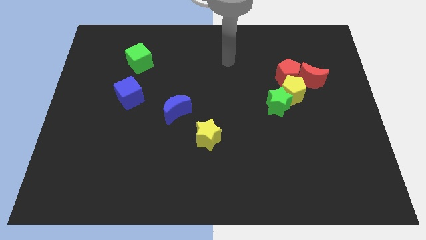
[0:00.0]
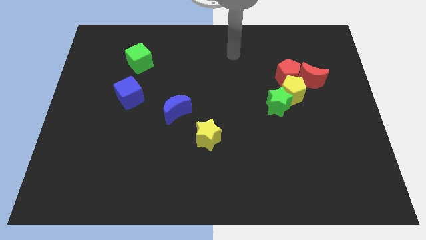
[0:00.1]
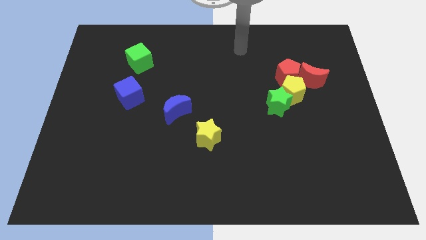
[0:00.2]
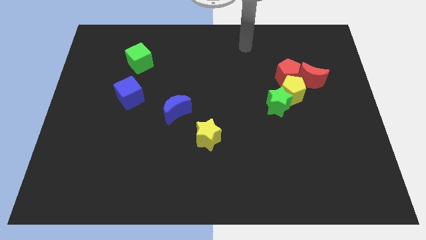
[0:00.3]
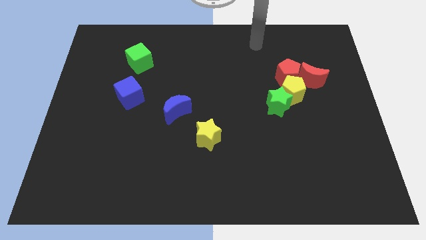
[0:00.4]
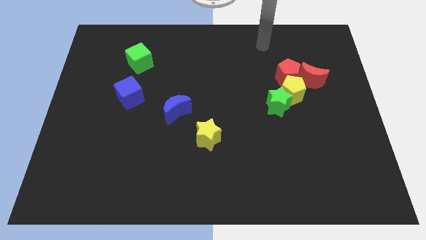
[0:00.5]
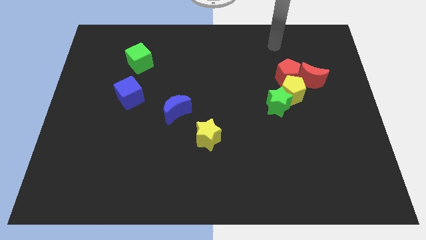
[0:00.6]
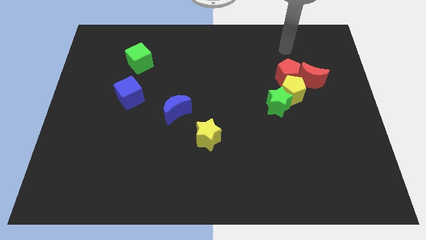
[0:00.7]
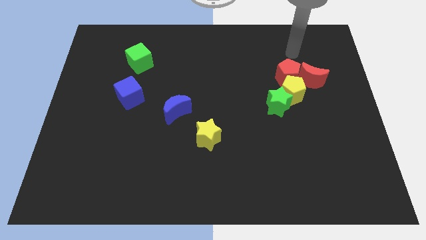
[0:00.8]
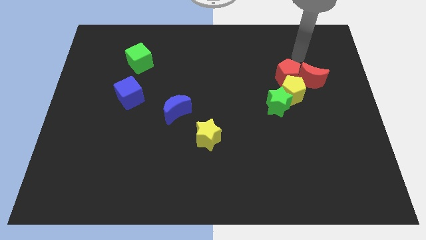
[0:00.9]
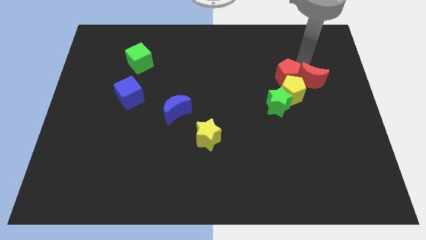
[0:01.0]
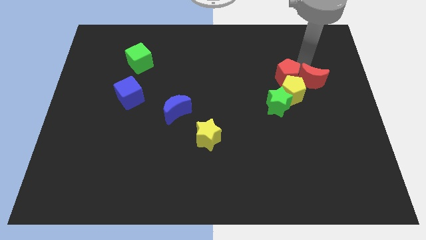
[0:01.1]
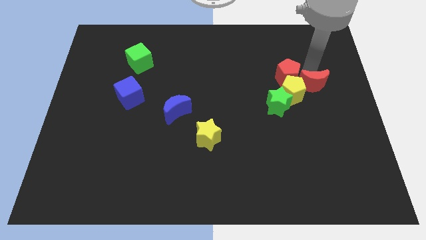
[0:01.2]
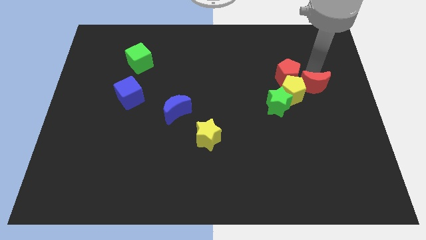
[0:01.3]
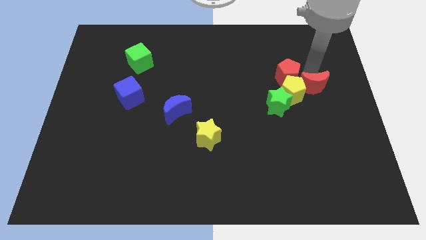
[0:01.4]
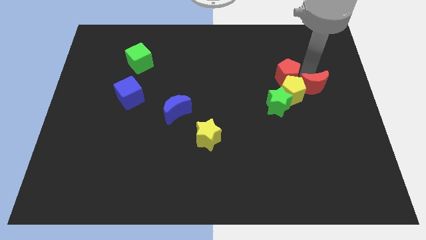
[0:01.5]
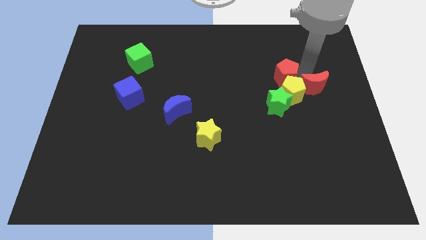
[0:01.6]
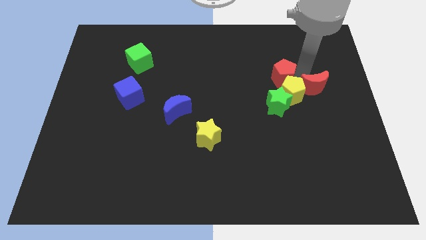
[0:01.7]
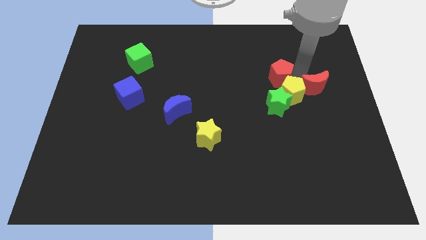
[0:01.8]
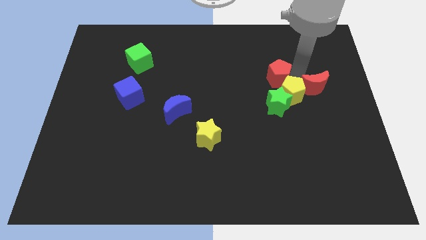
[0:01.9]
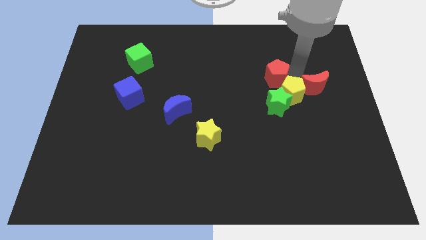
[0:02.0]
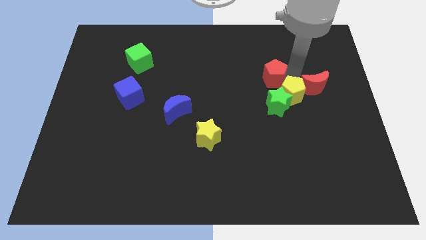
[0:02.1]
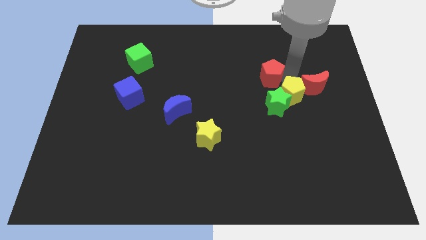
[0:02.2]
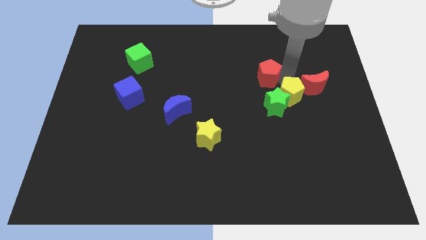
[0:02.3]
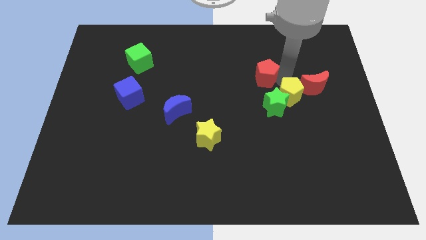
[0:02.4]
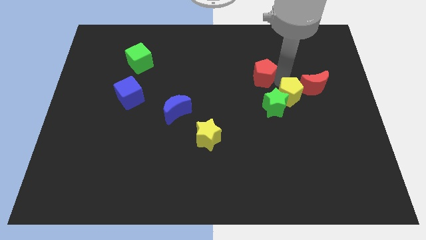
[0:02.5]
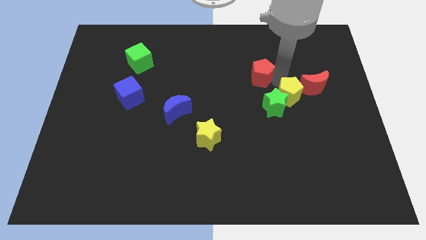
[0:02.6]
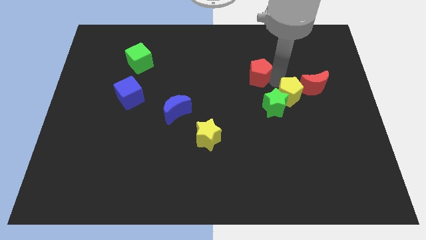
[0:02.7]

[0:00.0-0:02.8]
move the red pentagon a bit to the left

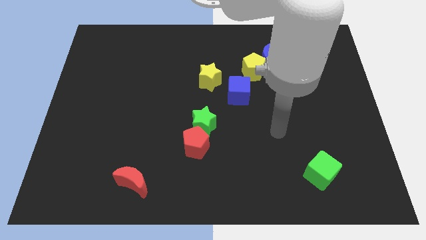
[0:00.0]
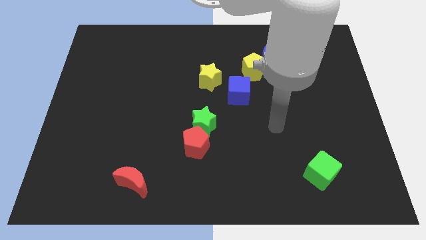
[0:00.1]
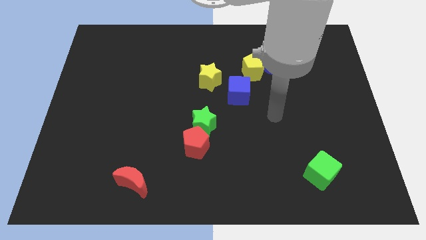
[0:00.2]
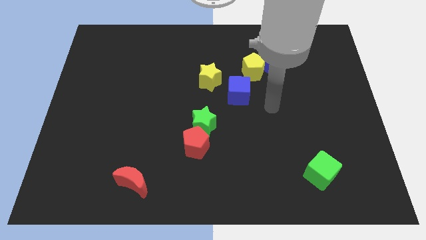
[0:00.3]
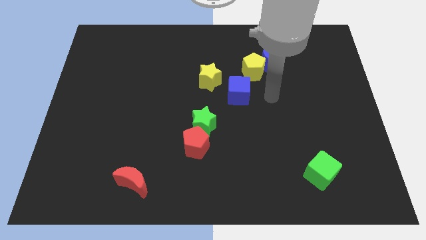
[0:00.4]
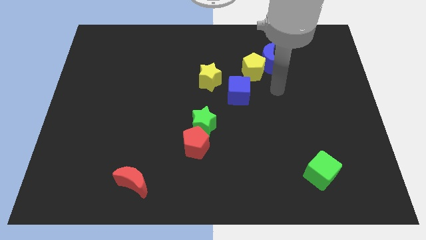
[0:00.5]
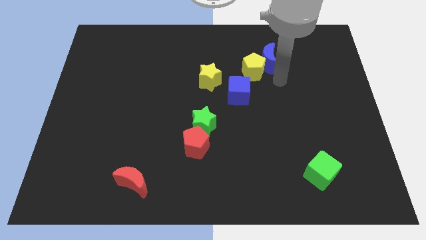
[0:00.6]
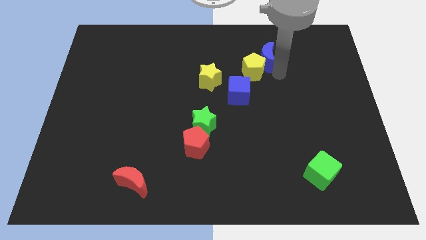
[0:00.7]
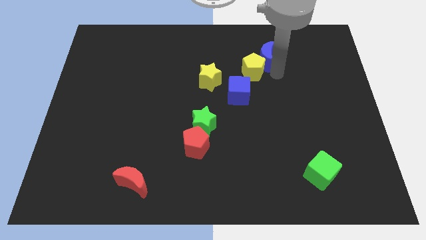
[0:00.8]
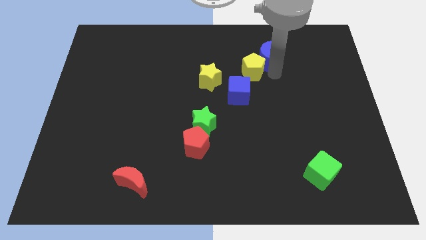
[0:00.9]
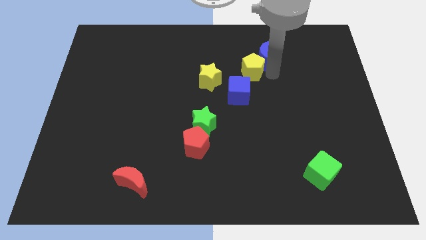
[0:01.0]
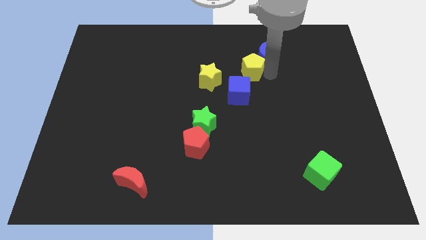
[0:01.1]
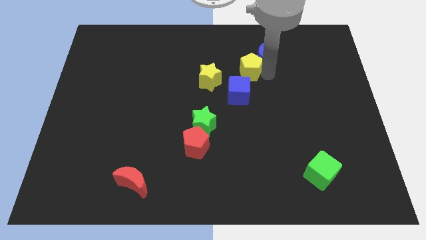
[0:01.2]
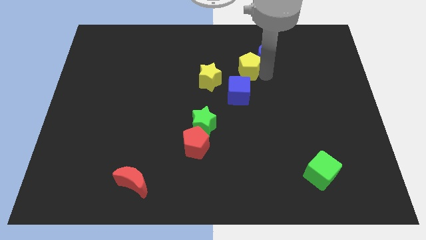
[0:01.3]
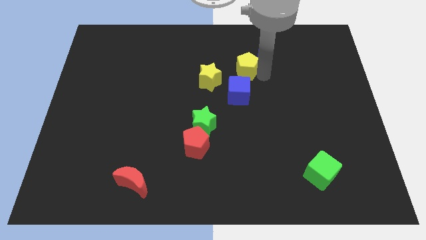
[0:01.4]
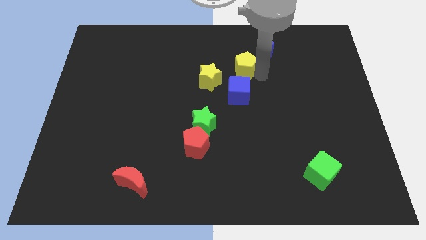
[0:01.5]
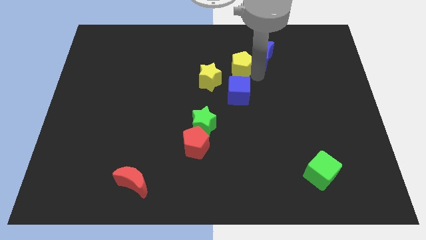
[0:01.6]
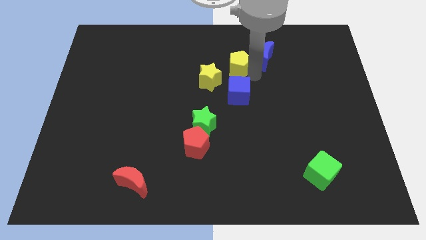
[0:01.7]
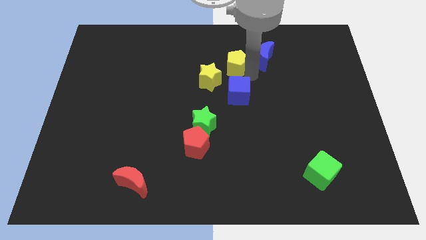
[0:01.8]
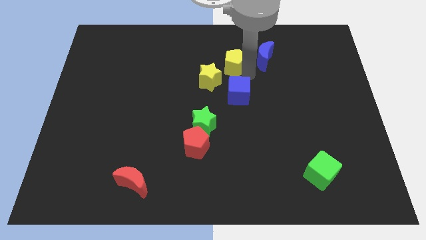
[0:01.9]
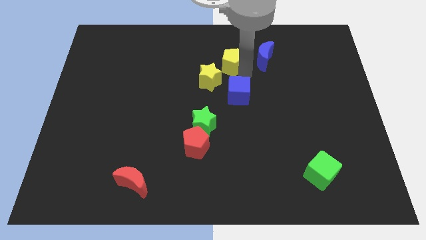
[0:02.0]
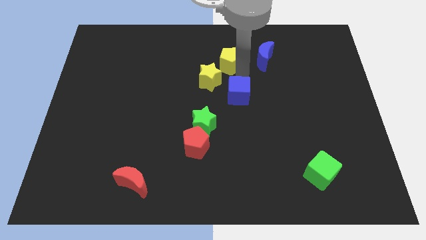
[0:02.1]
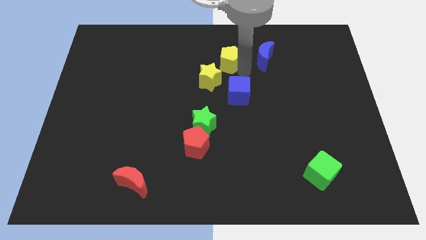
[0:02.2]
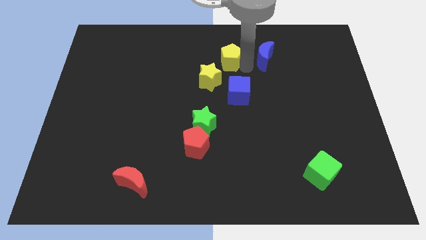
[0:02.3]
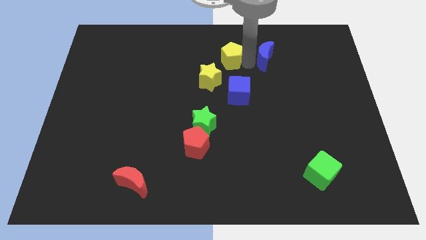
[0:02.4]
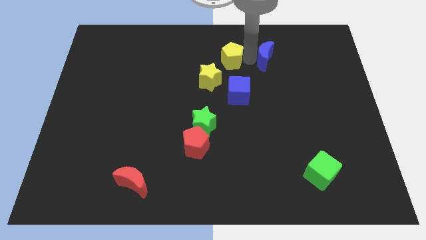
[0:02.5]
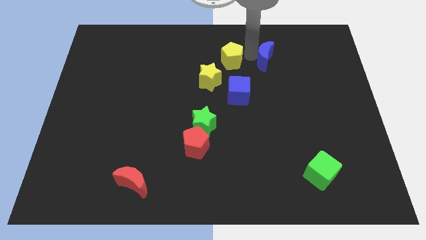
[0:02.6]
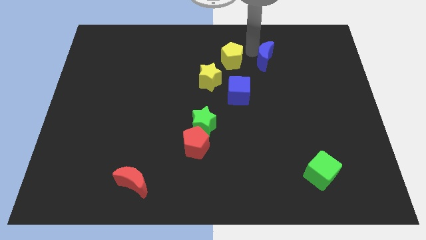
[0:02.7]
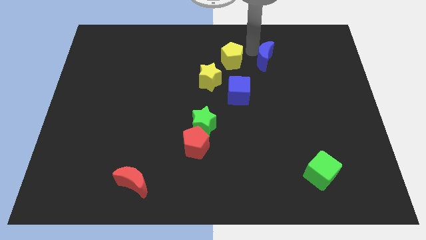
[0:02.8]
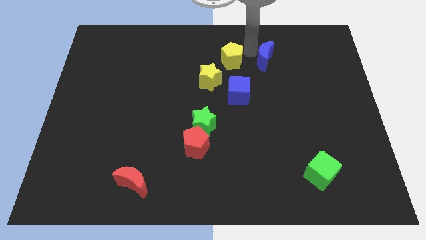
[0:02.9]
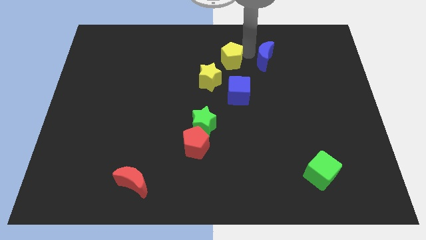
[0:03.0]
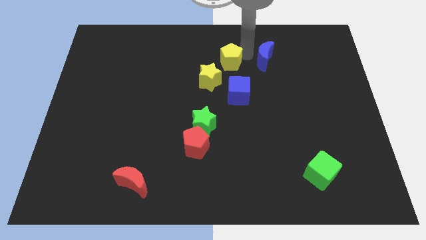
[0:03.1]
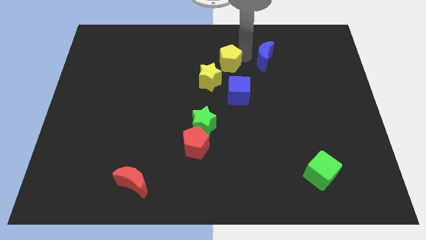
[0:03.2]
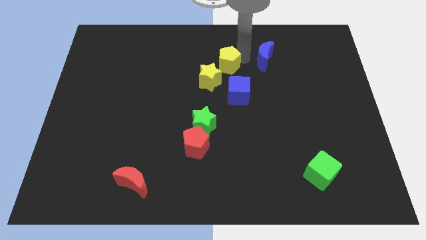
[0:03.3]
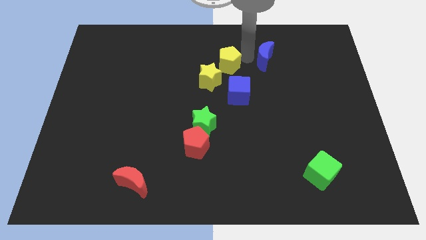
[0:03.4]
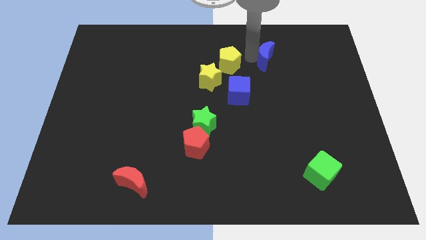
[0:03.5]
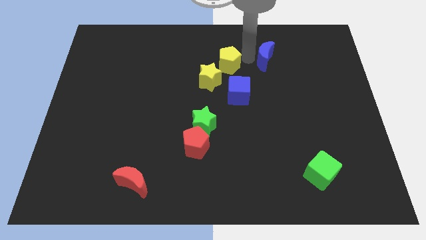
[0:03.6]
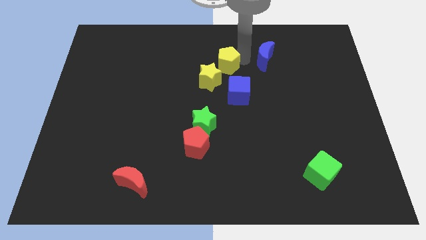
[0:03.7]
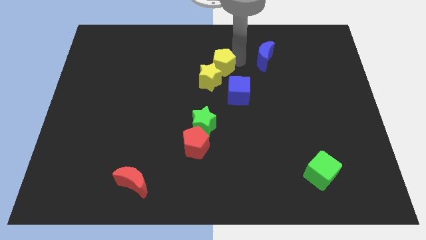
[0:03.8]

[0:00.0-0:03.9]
slightly move the yellow pentagon left

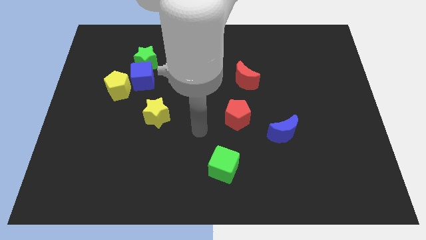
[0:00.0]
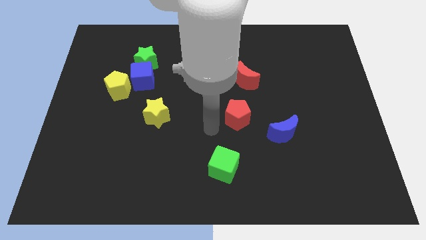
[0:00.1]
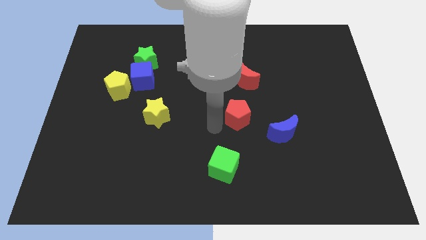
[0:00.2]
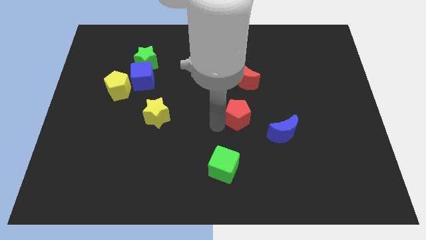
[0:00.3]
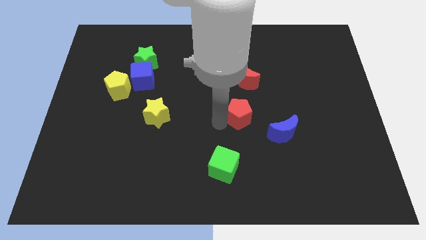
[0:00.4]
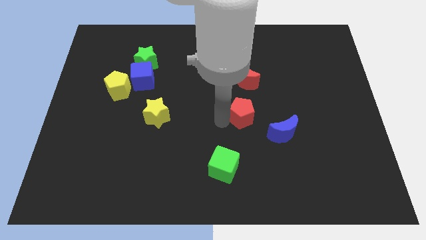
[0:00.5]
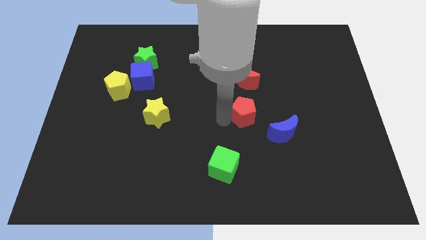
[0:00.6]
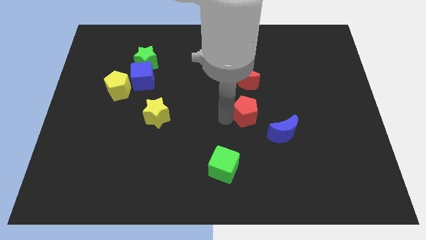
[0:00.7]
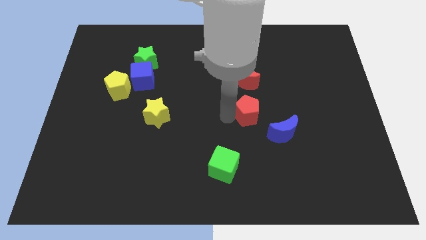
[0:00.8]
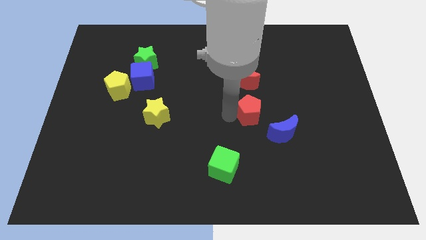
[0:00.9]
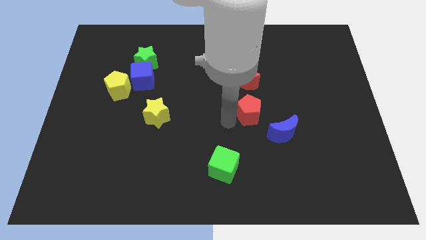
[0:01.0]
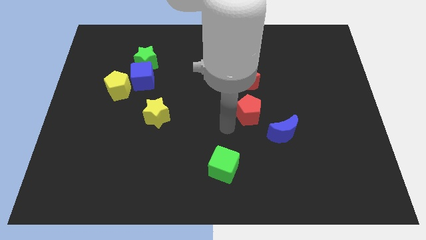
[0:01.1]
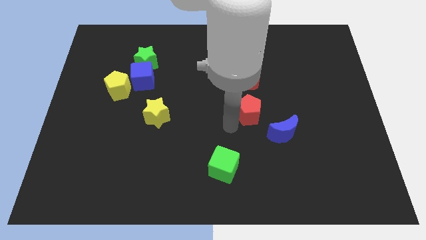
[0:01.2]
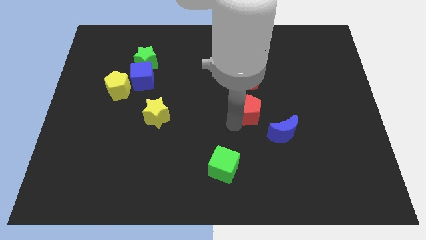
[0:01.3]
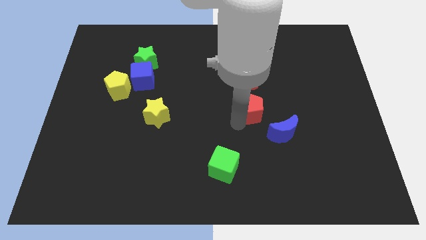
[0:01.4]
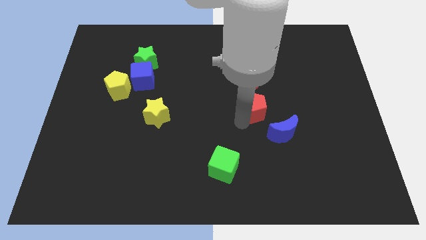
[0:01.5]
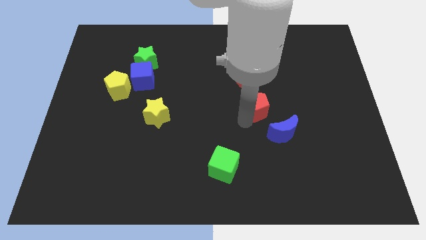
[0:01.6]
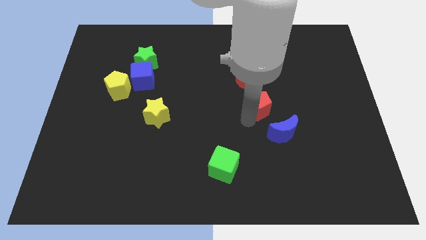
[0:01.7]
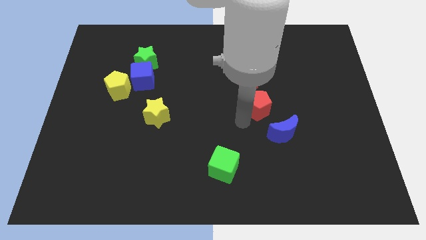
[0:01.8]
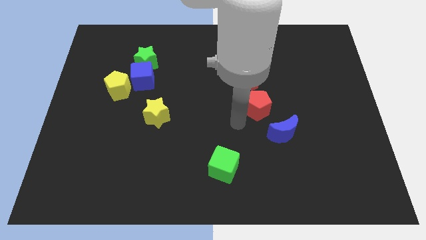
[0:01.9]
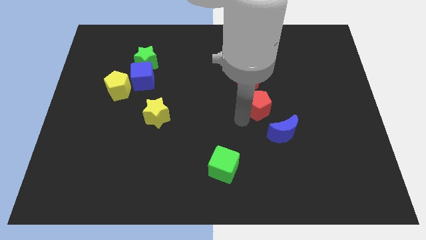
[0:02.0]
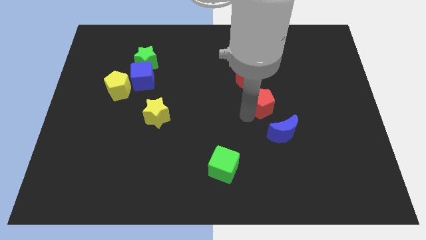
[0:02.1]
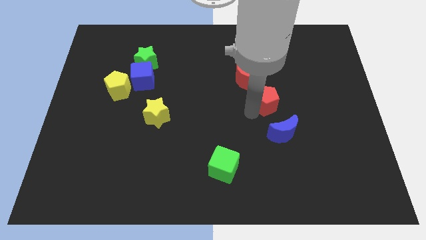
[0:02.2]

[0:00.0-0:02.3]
slightly push the red pentagon upwards and then right
